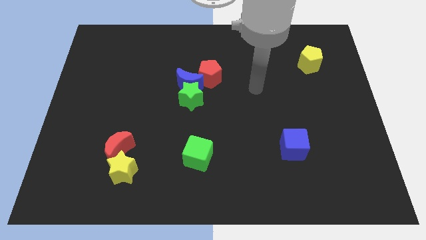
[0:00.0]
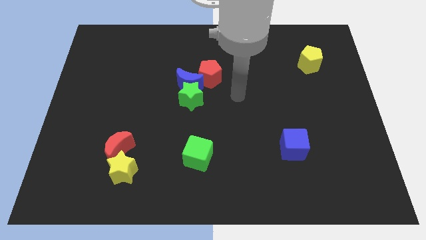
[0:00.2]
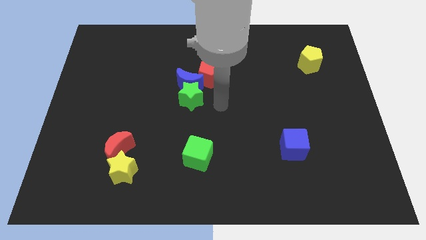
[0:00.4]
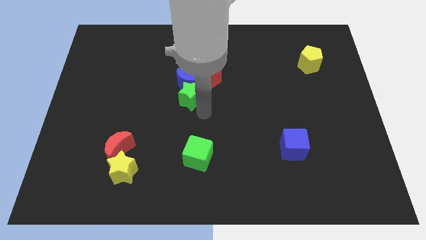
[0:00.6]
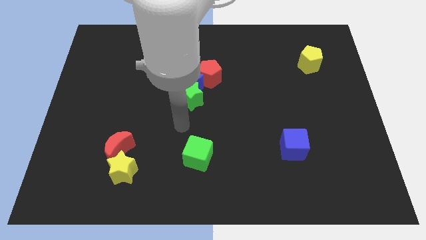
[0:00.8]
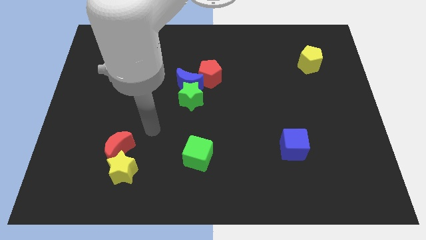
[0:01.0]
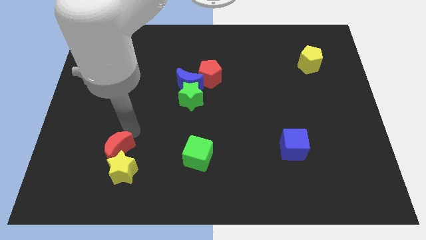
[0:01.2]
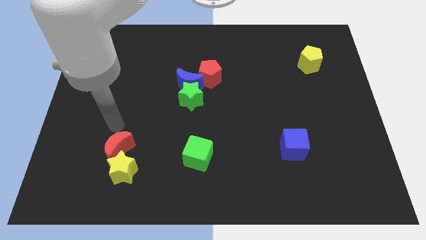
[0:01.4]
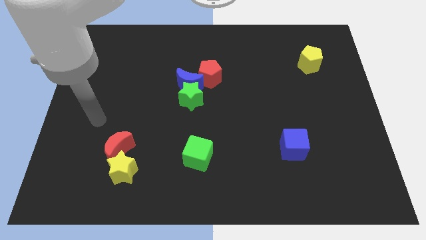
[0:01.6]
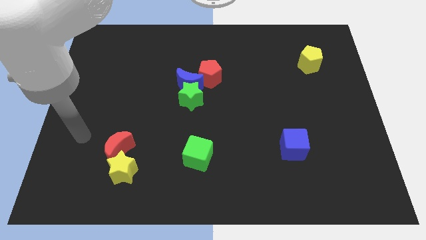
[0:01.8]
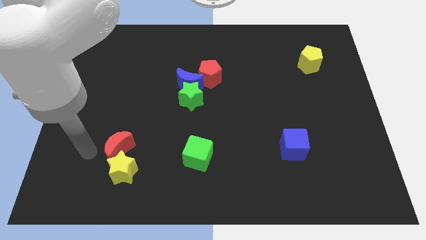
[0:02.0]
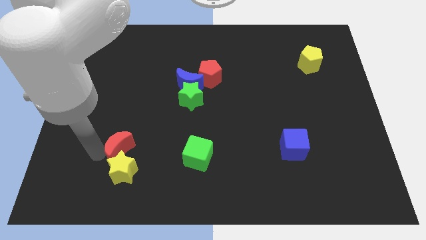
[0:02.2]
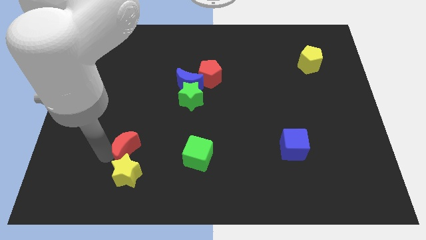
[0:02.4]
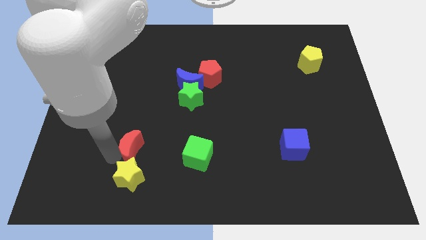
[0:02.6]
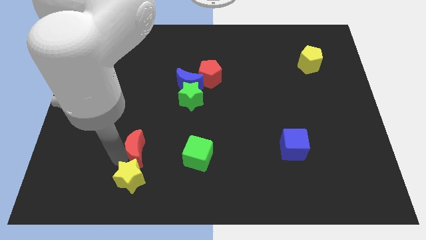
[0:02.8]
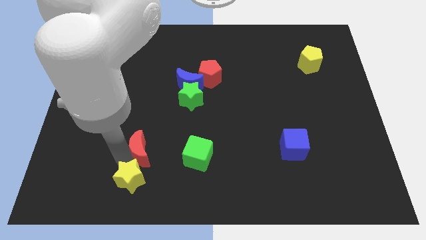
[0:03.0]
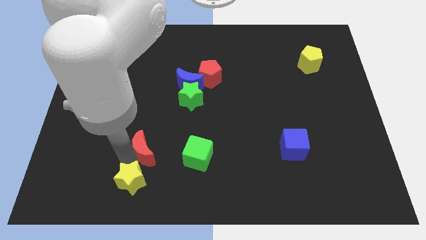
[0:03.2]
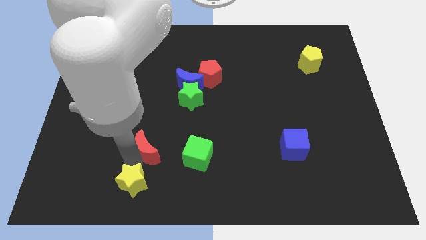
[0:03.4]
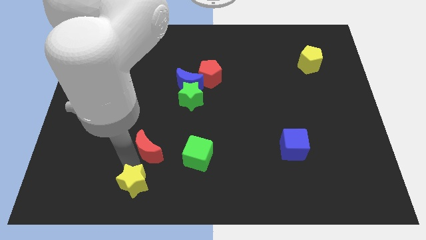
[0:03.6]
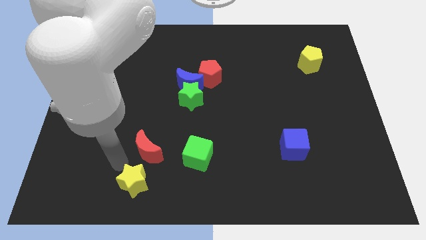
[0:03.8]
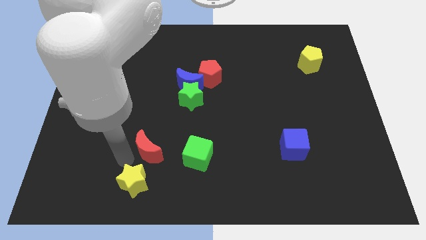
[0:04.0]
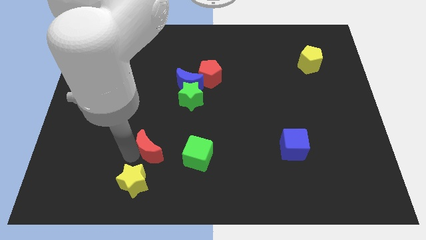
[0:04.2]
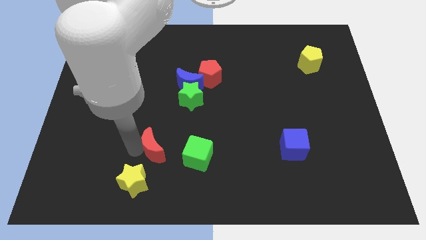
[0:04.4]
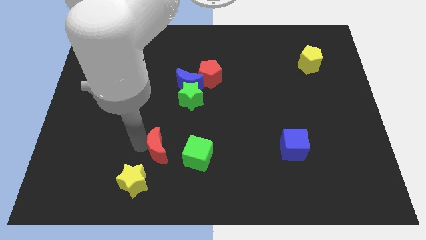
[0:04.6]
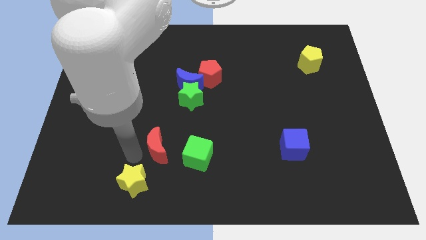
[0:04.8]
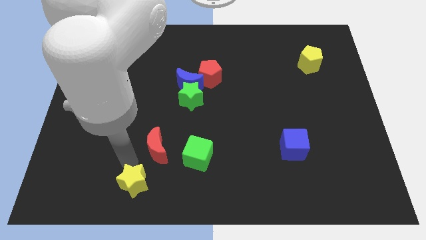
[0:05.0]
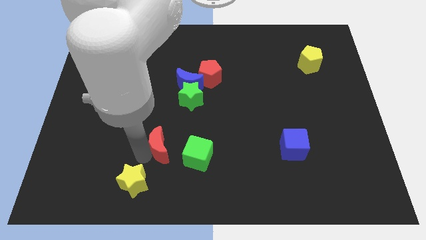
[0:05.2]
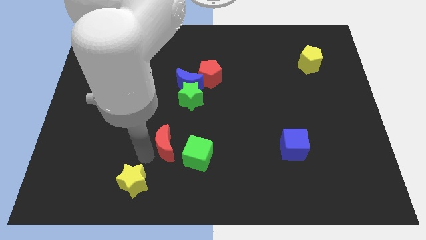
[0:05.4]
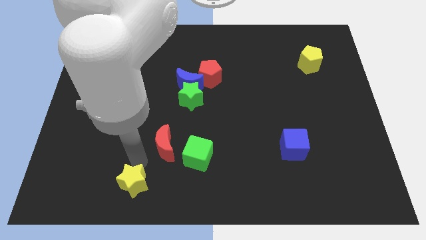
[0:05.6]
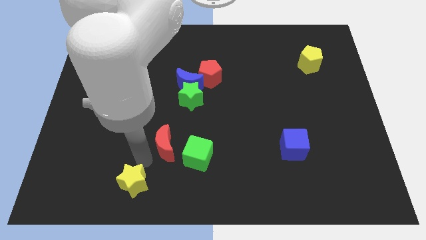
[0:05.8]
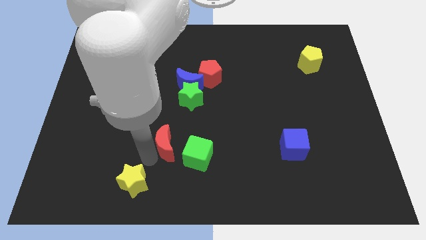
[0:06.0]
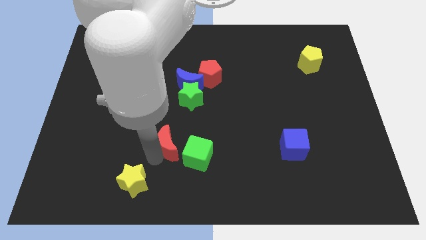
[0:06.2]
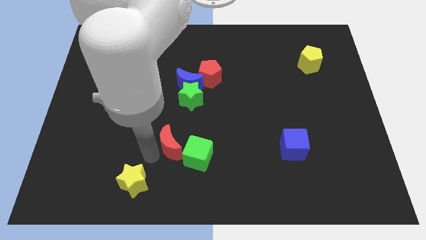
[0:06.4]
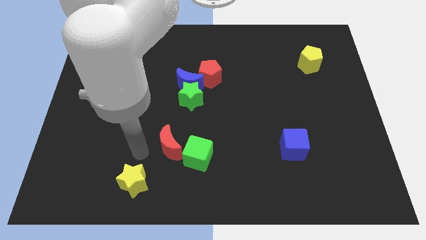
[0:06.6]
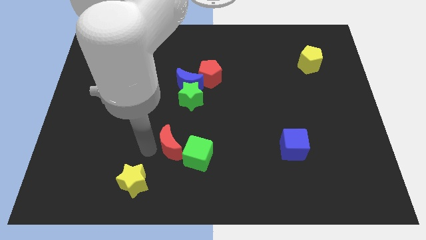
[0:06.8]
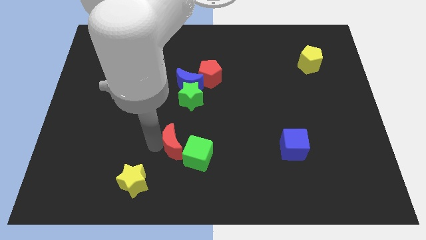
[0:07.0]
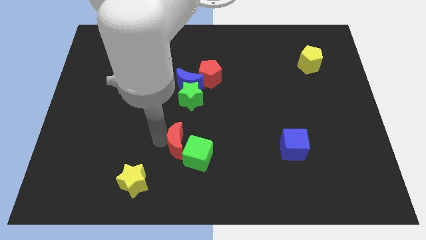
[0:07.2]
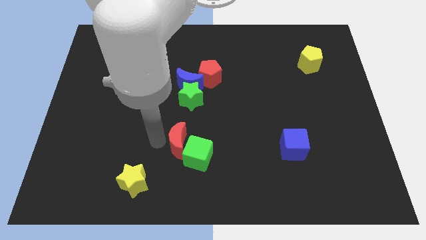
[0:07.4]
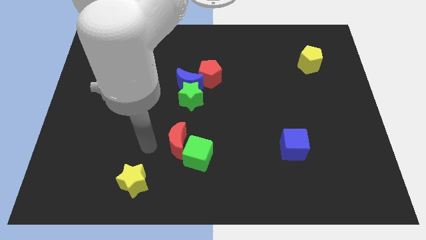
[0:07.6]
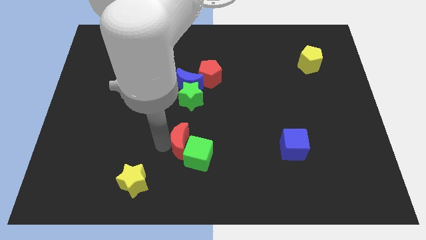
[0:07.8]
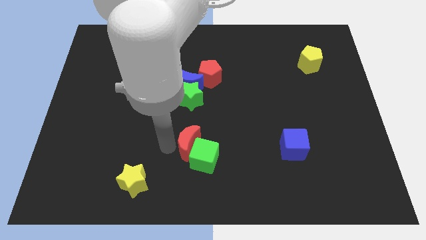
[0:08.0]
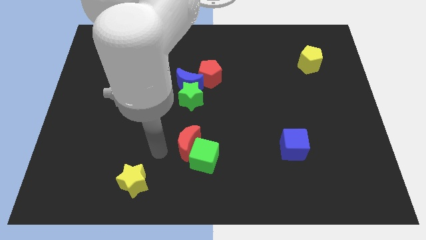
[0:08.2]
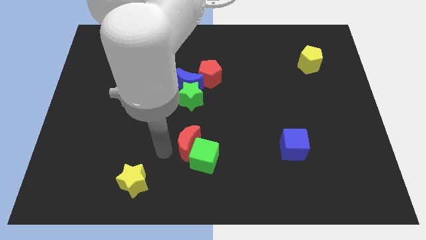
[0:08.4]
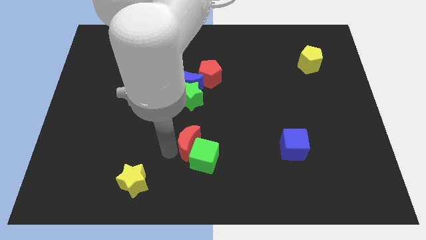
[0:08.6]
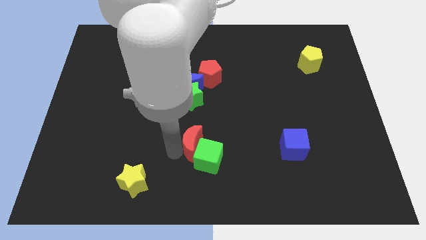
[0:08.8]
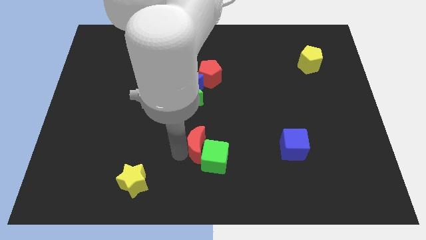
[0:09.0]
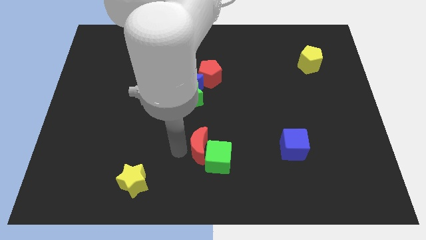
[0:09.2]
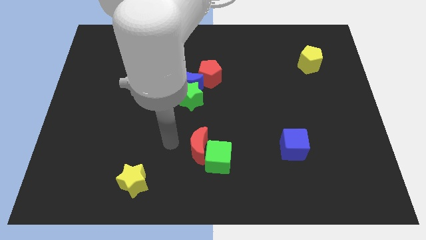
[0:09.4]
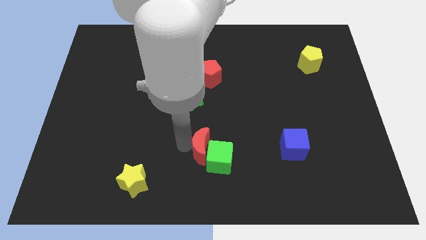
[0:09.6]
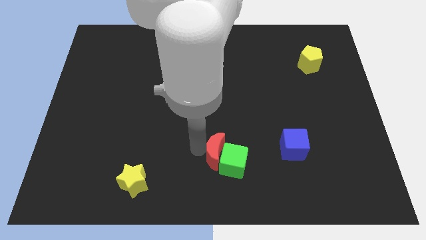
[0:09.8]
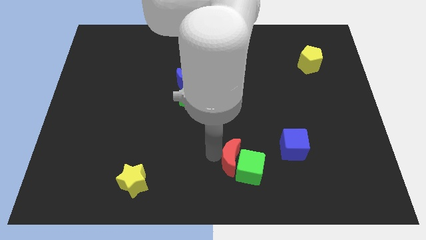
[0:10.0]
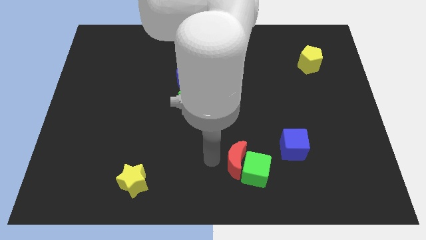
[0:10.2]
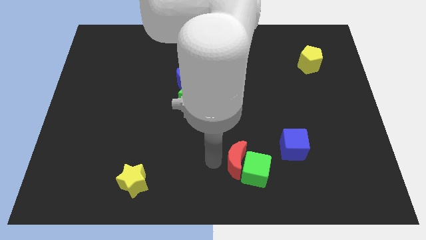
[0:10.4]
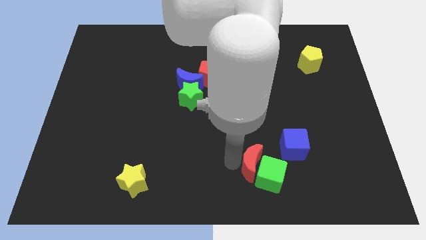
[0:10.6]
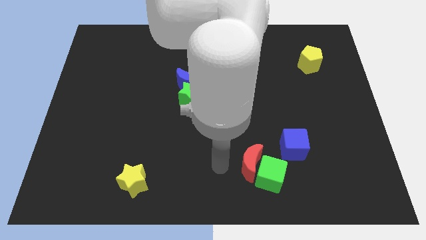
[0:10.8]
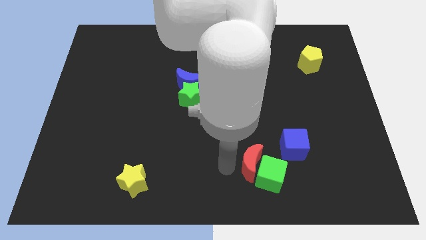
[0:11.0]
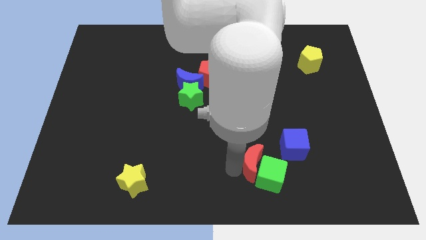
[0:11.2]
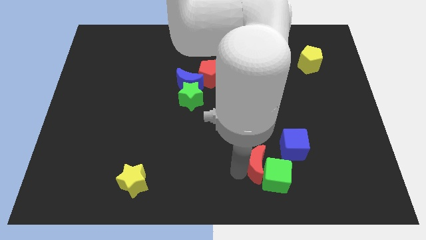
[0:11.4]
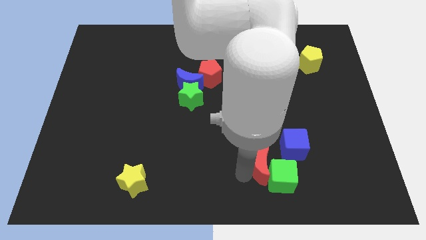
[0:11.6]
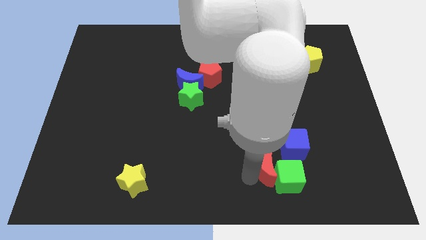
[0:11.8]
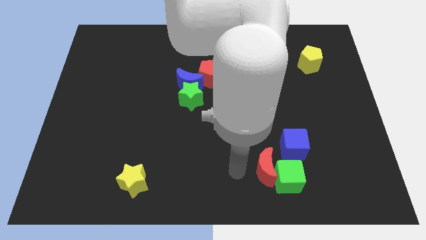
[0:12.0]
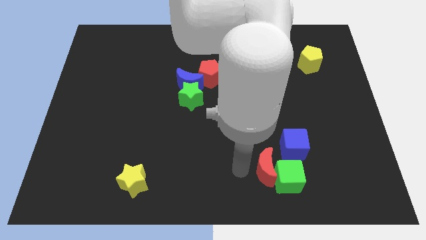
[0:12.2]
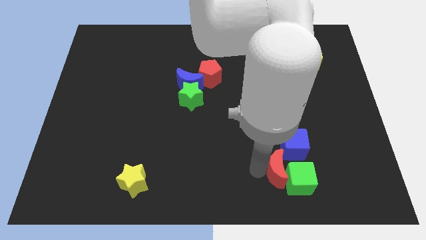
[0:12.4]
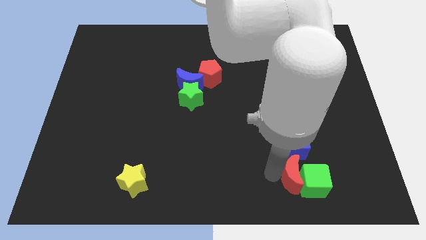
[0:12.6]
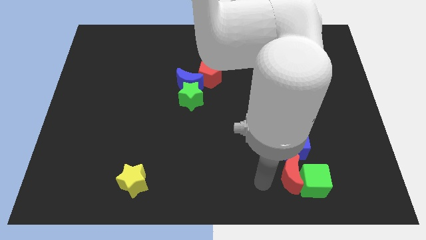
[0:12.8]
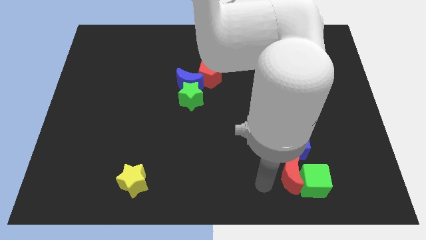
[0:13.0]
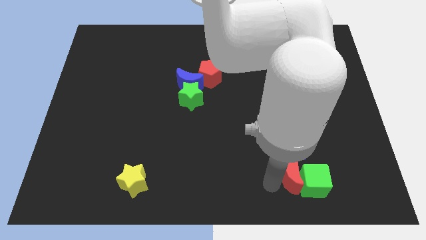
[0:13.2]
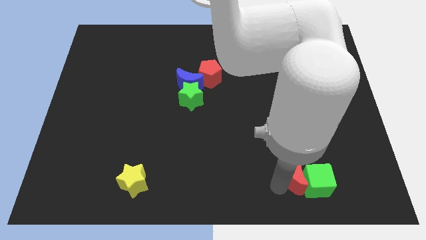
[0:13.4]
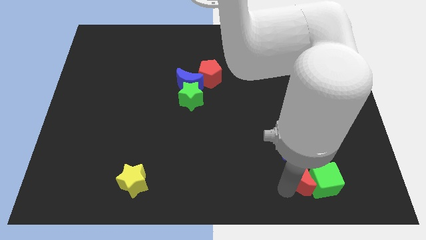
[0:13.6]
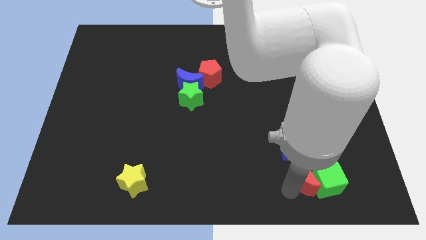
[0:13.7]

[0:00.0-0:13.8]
move the red moon to the bottom right side of the blue cube
